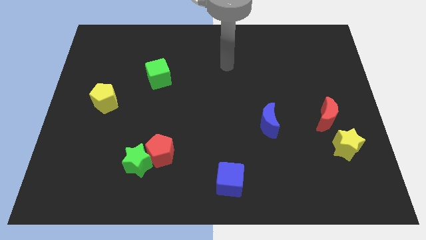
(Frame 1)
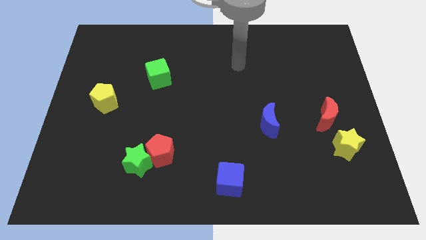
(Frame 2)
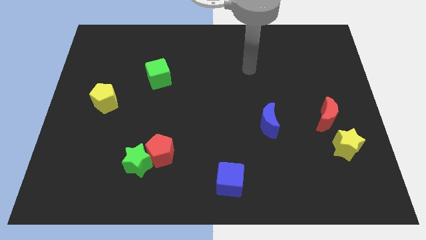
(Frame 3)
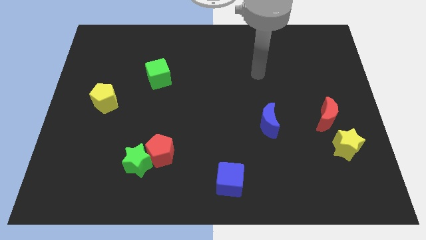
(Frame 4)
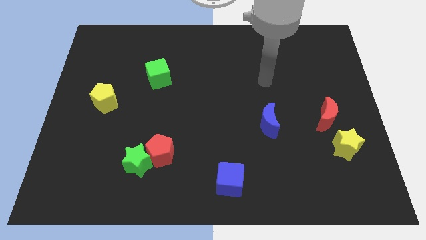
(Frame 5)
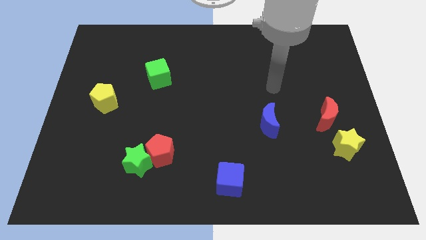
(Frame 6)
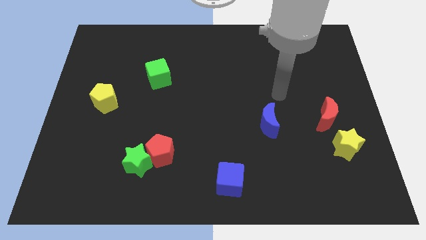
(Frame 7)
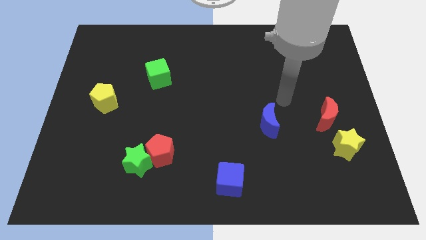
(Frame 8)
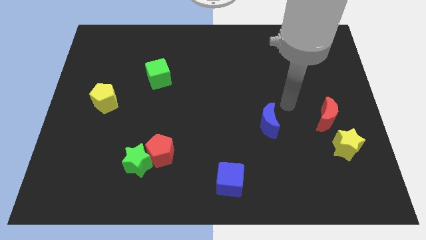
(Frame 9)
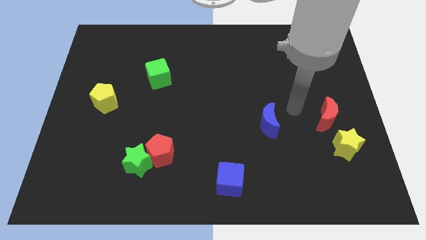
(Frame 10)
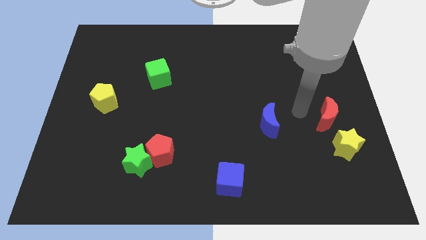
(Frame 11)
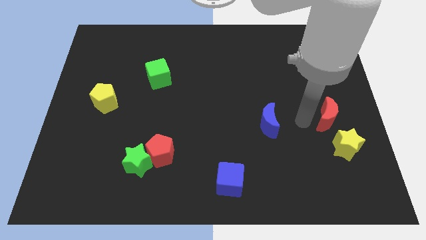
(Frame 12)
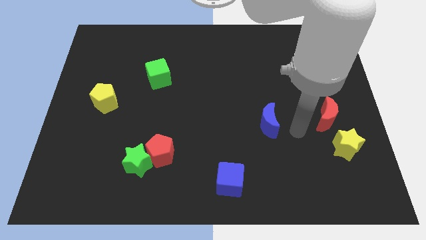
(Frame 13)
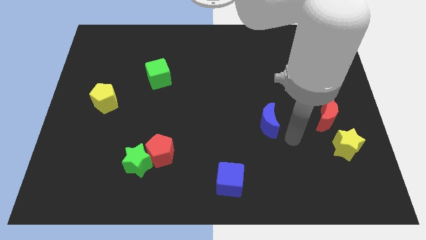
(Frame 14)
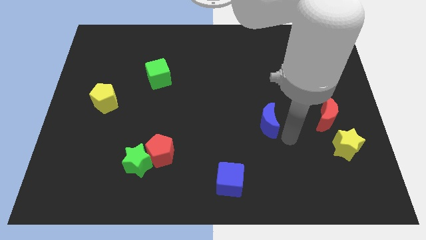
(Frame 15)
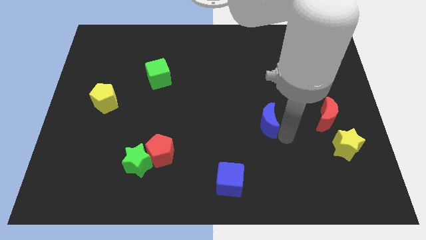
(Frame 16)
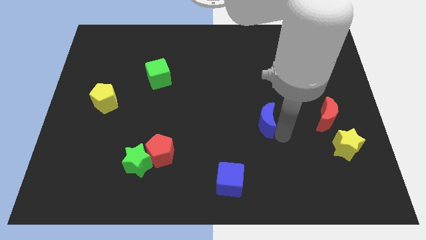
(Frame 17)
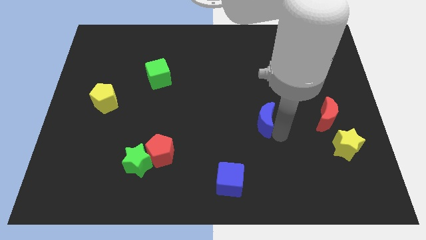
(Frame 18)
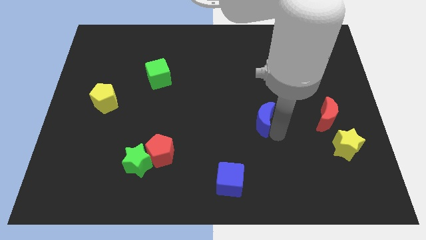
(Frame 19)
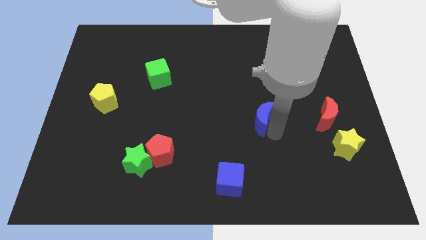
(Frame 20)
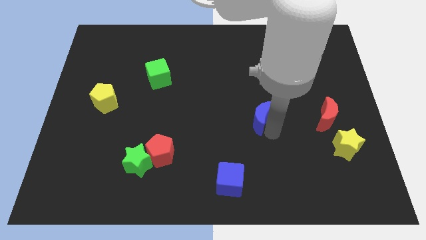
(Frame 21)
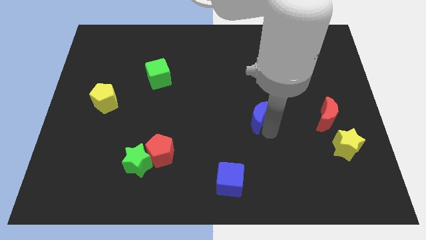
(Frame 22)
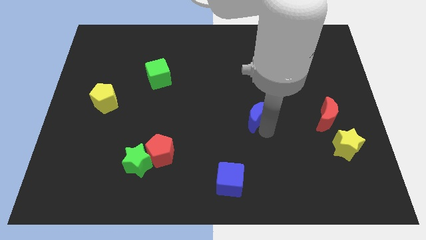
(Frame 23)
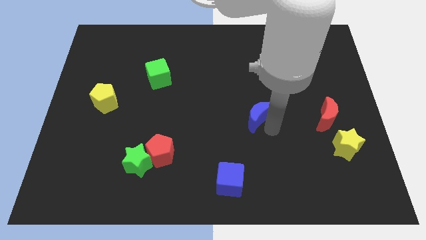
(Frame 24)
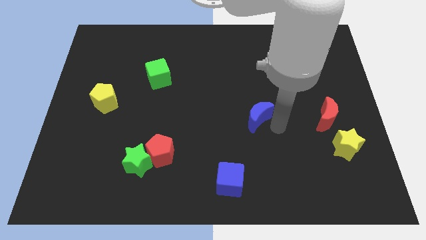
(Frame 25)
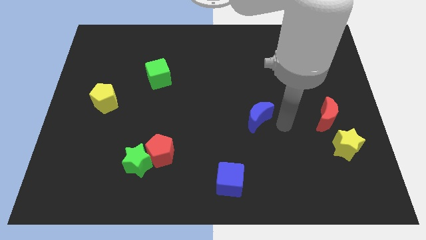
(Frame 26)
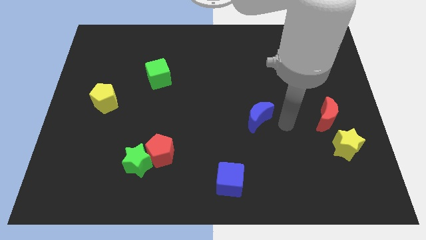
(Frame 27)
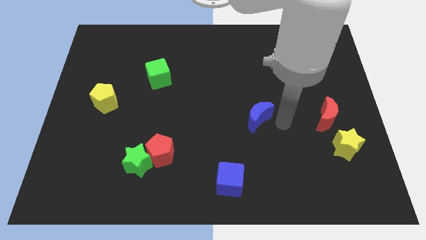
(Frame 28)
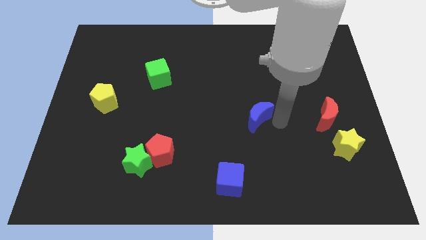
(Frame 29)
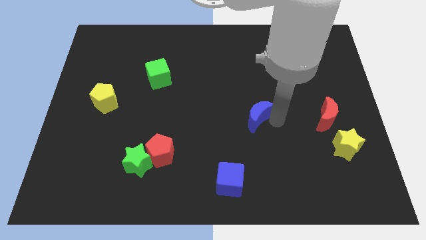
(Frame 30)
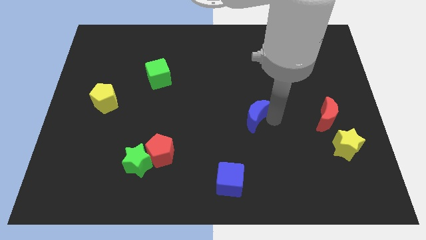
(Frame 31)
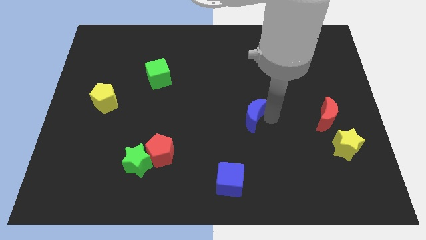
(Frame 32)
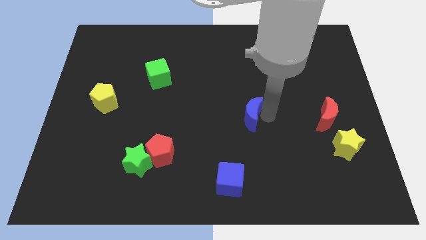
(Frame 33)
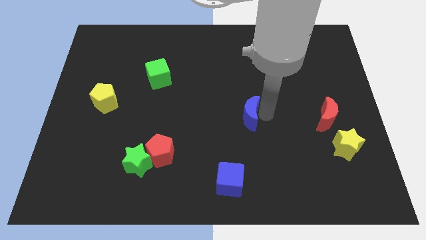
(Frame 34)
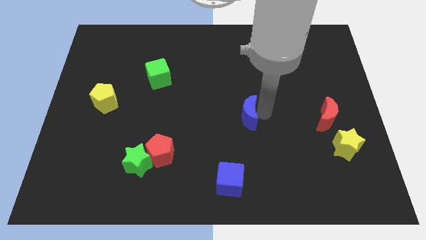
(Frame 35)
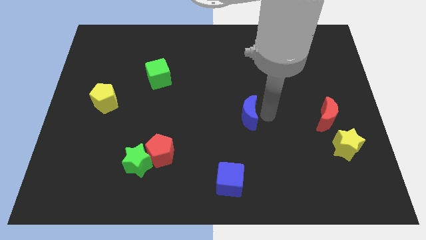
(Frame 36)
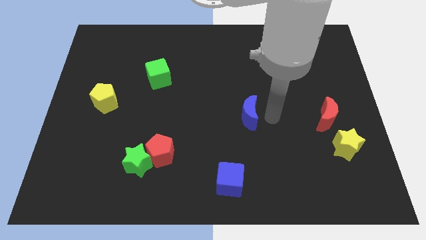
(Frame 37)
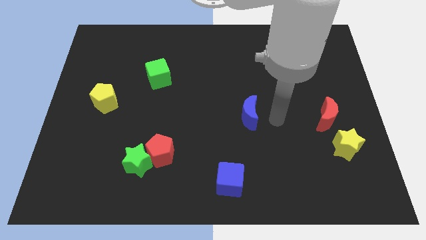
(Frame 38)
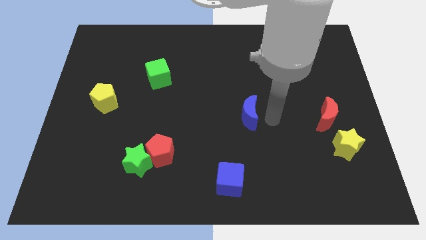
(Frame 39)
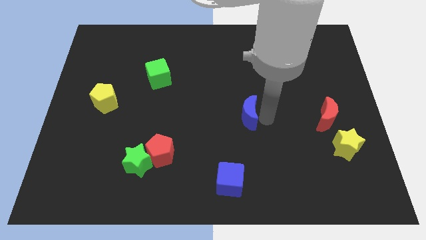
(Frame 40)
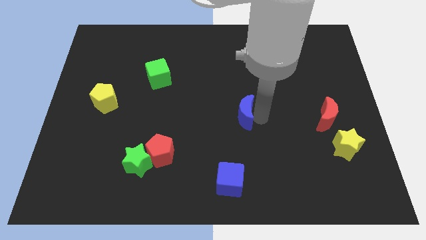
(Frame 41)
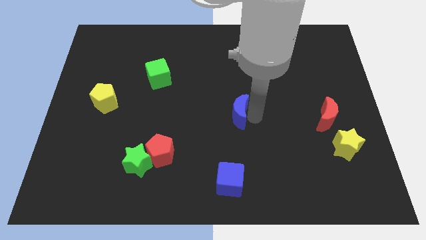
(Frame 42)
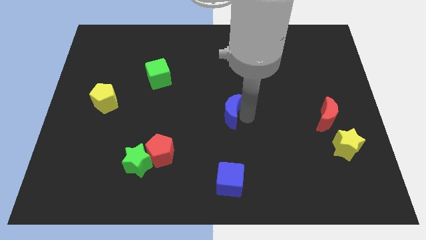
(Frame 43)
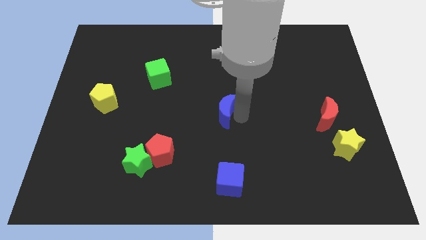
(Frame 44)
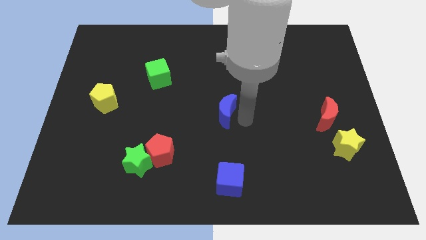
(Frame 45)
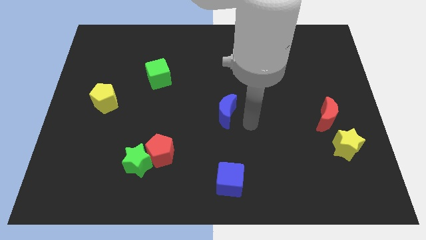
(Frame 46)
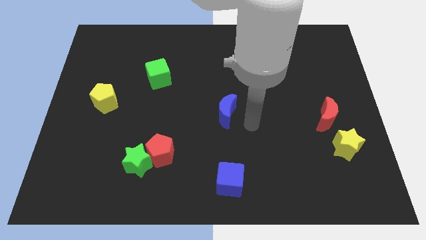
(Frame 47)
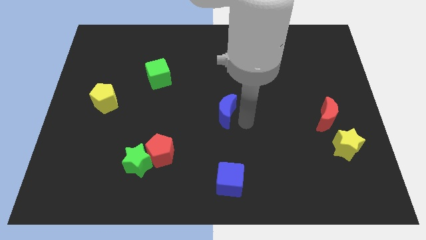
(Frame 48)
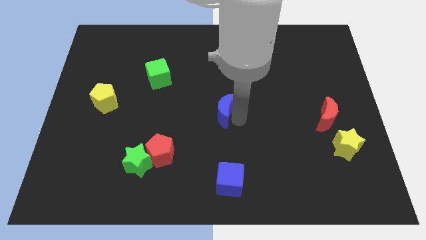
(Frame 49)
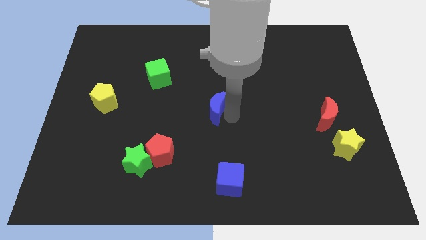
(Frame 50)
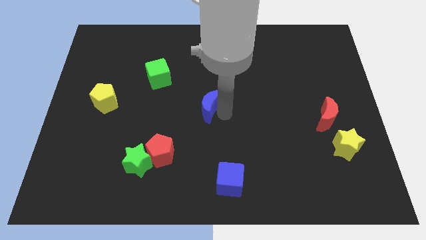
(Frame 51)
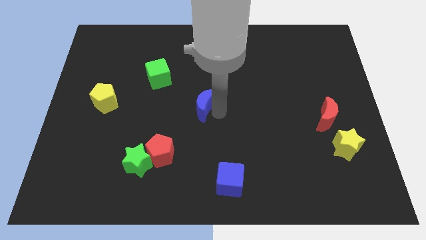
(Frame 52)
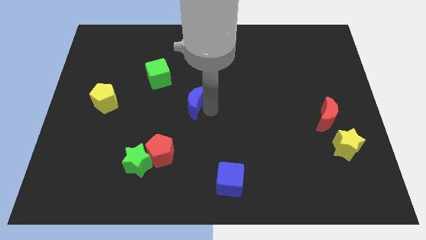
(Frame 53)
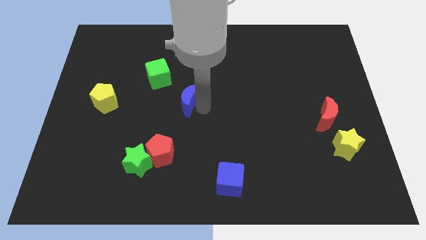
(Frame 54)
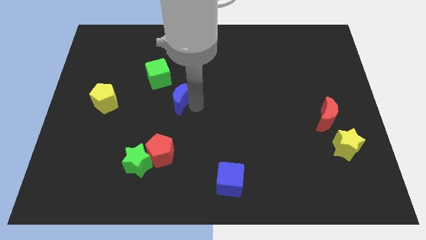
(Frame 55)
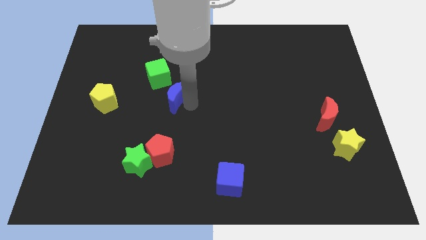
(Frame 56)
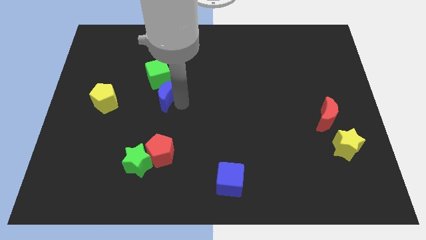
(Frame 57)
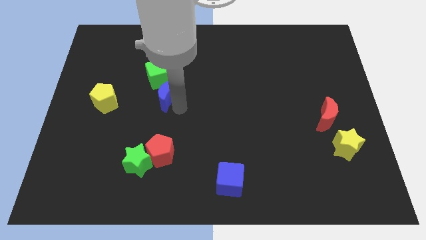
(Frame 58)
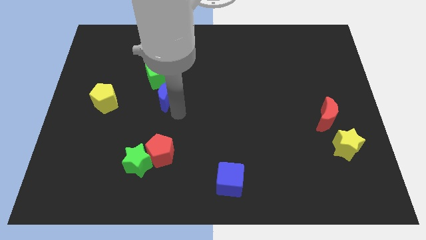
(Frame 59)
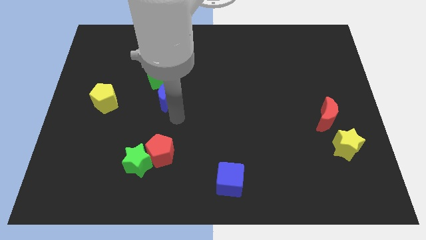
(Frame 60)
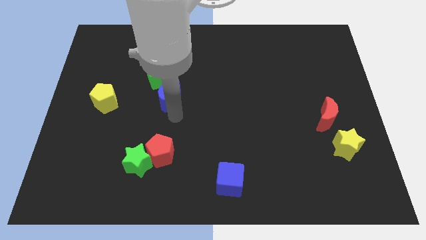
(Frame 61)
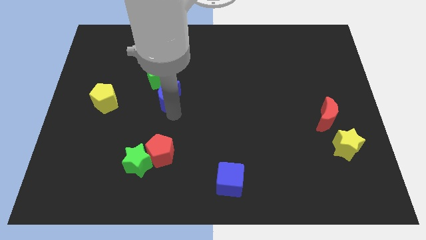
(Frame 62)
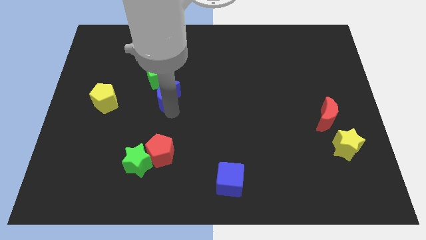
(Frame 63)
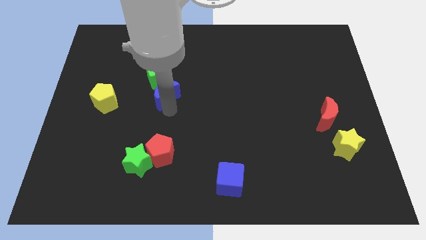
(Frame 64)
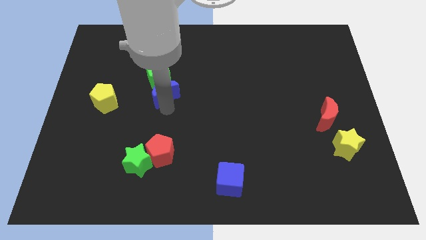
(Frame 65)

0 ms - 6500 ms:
move the blue moon close to the green cube

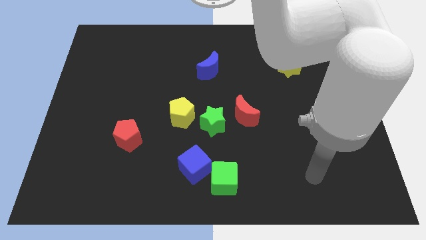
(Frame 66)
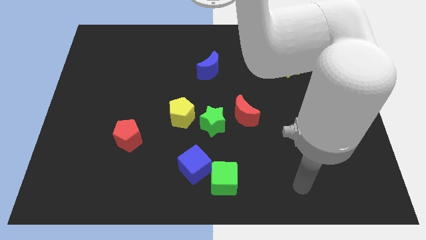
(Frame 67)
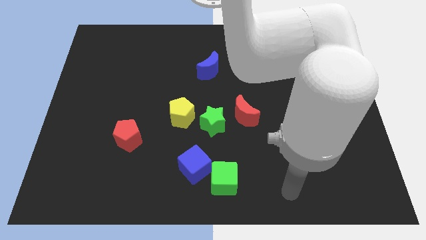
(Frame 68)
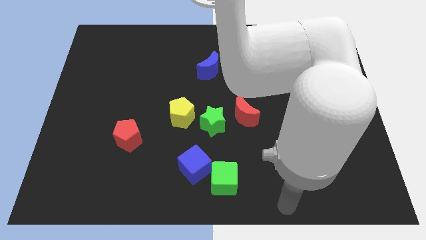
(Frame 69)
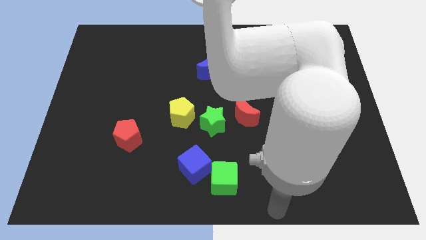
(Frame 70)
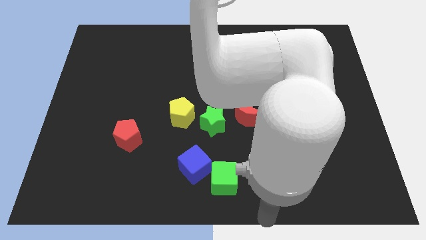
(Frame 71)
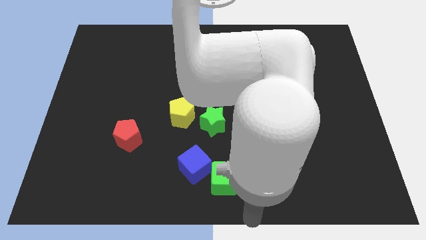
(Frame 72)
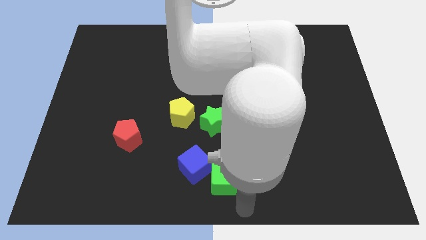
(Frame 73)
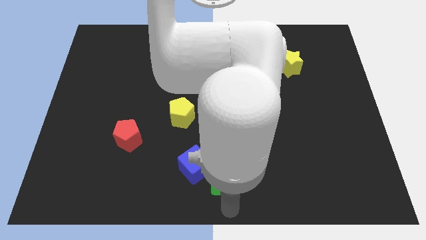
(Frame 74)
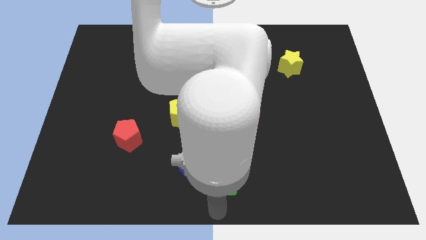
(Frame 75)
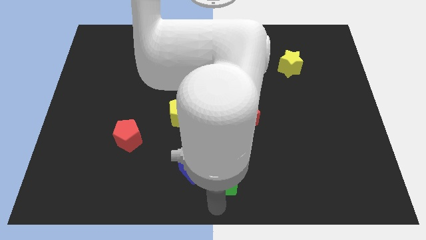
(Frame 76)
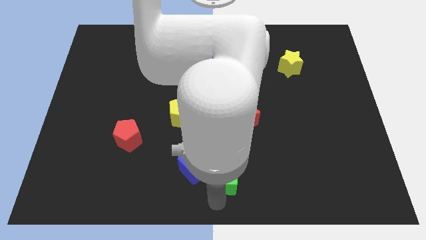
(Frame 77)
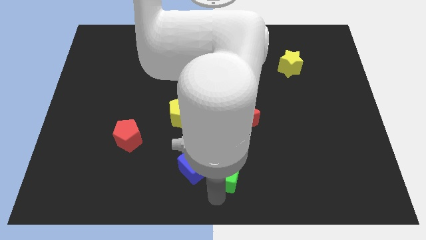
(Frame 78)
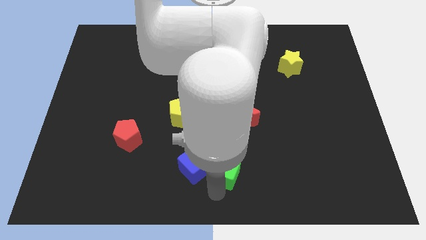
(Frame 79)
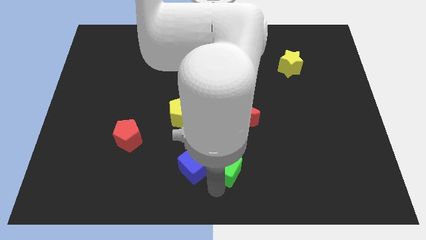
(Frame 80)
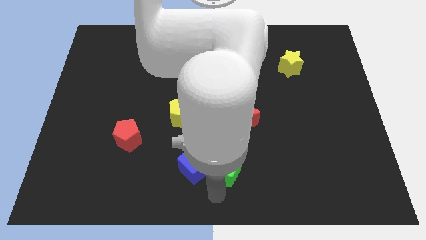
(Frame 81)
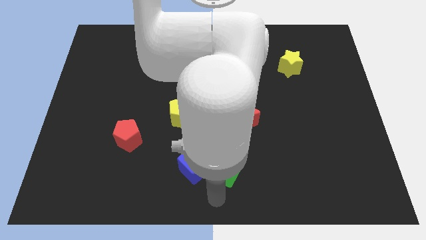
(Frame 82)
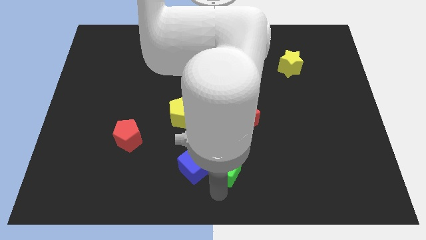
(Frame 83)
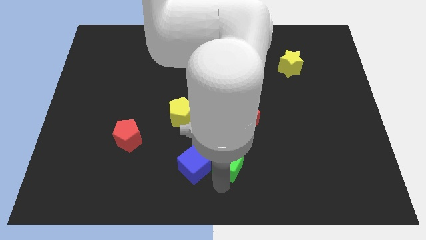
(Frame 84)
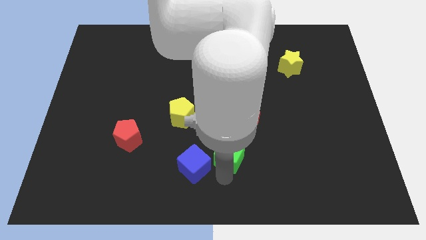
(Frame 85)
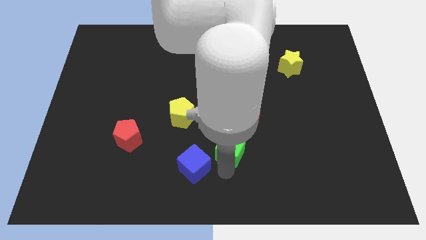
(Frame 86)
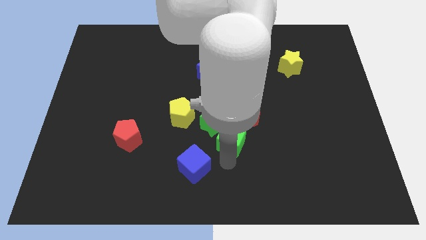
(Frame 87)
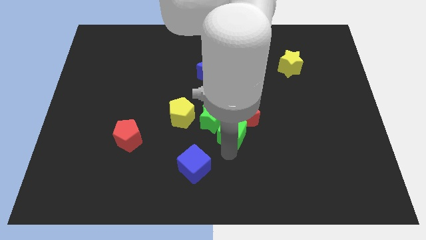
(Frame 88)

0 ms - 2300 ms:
put the green cube to the red moon
